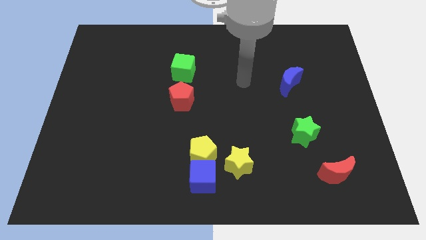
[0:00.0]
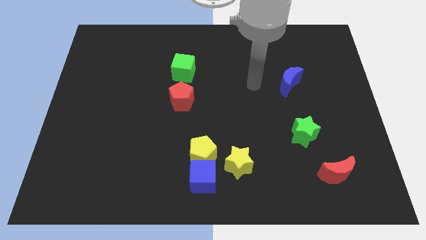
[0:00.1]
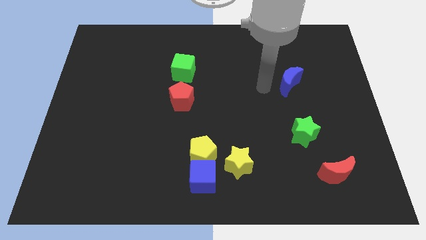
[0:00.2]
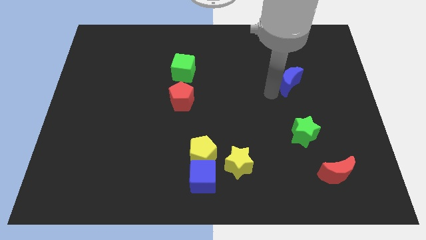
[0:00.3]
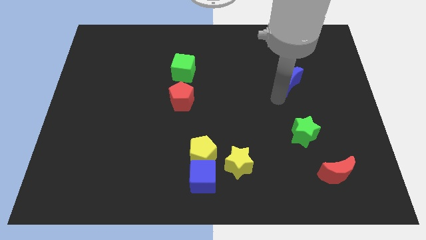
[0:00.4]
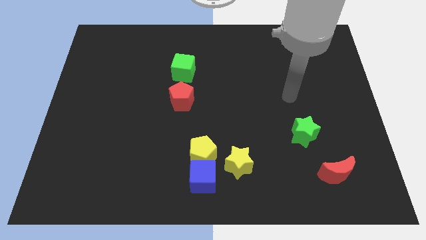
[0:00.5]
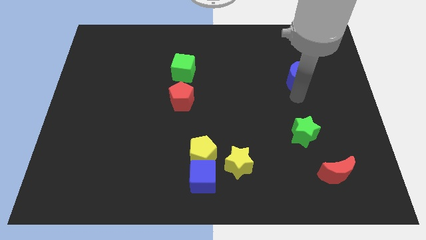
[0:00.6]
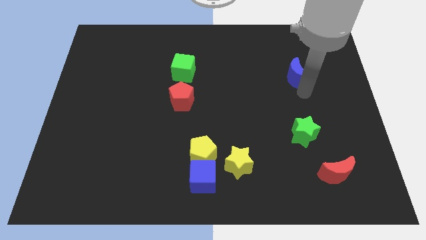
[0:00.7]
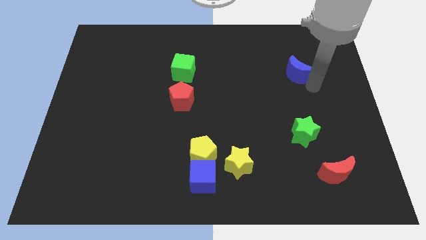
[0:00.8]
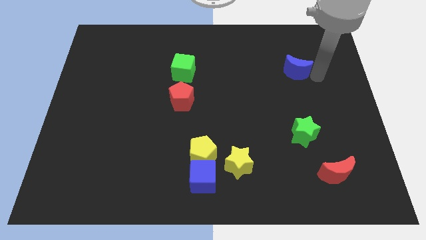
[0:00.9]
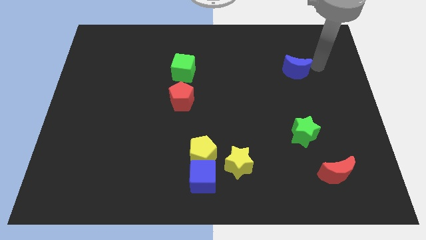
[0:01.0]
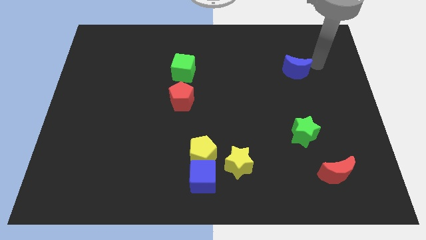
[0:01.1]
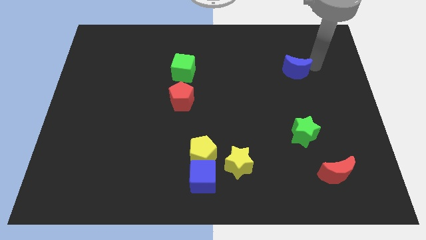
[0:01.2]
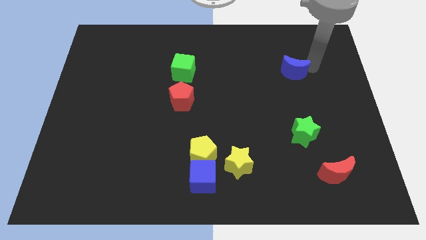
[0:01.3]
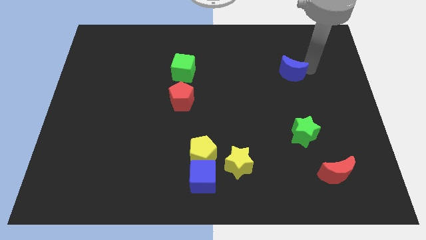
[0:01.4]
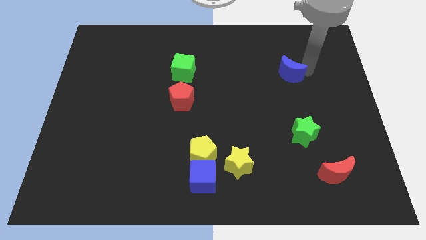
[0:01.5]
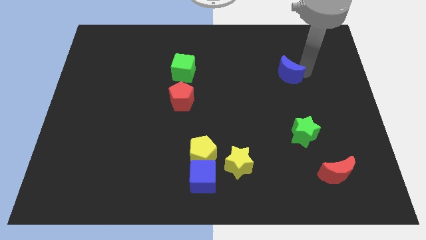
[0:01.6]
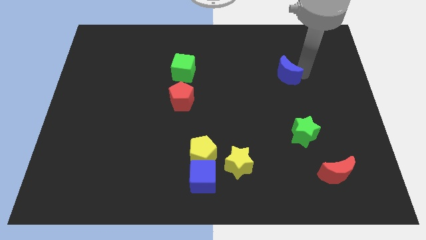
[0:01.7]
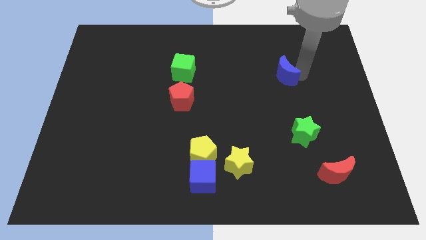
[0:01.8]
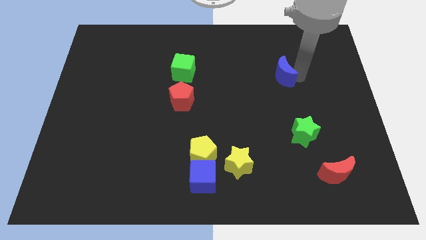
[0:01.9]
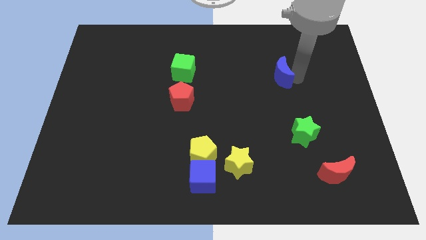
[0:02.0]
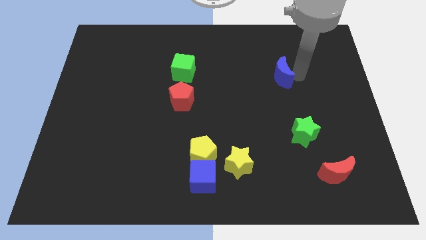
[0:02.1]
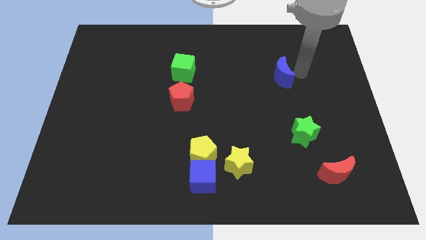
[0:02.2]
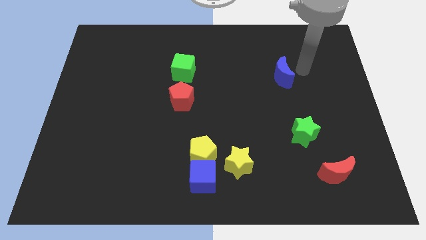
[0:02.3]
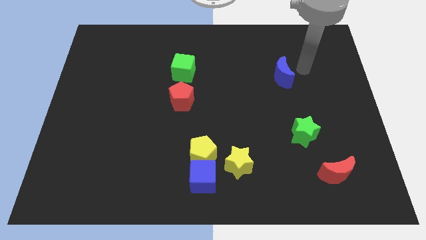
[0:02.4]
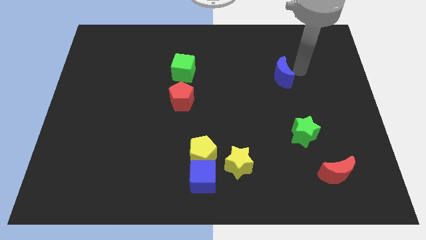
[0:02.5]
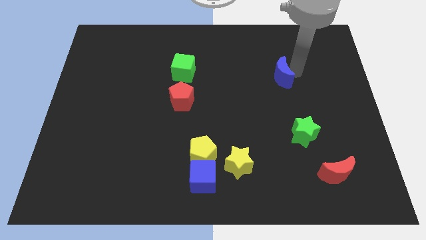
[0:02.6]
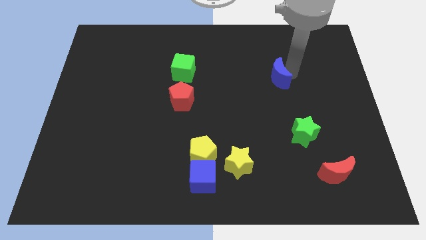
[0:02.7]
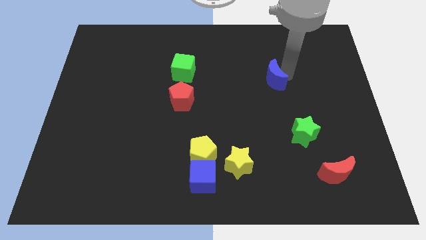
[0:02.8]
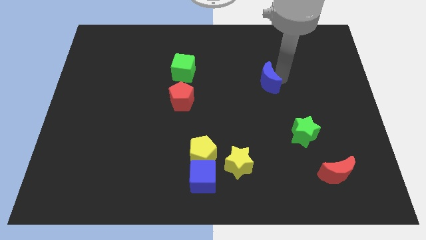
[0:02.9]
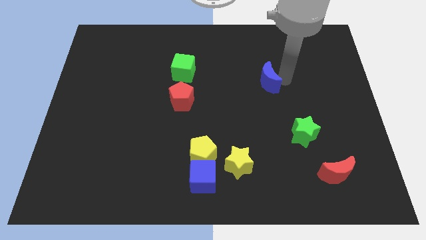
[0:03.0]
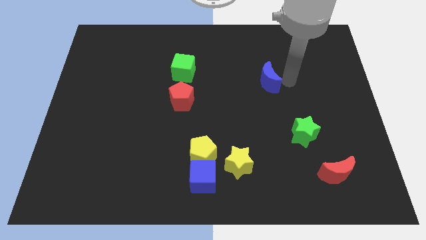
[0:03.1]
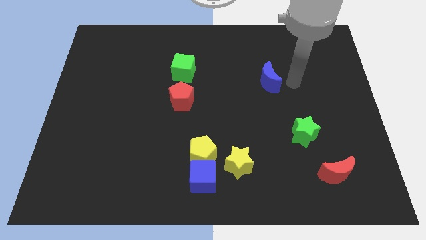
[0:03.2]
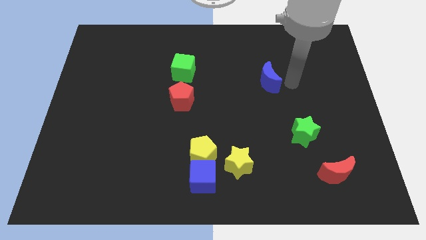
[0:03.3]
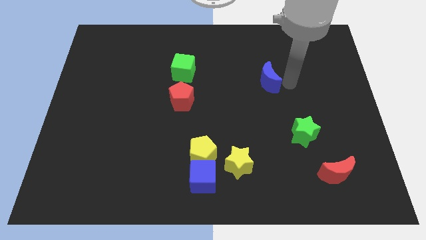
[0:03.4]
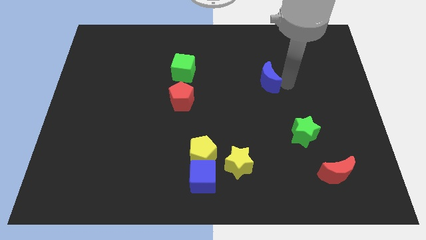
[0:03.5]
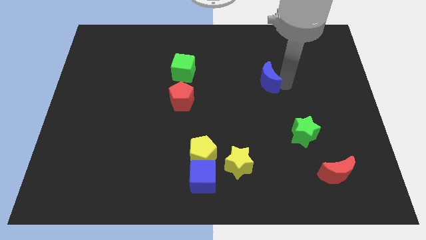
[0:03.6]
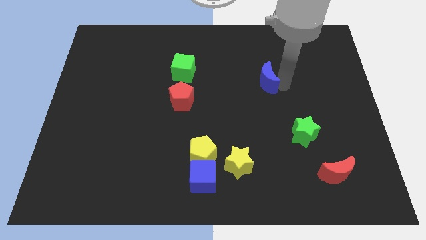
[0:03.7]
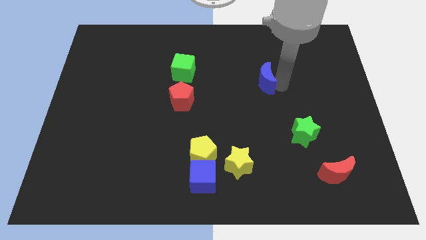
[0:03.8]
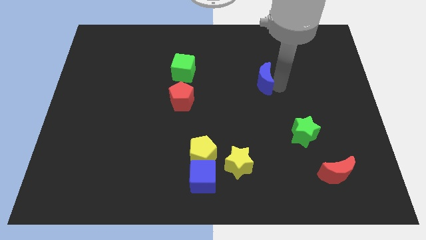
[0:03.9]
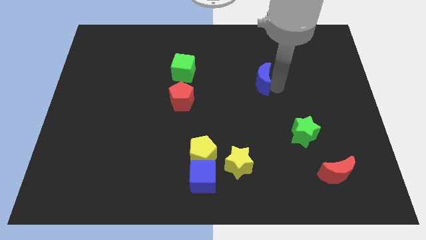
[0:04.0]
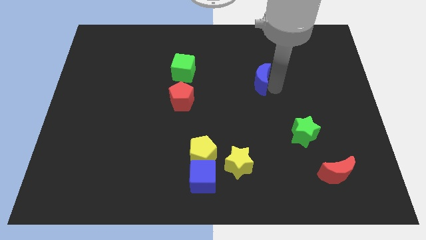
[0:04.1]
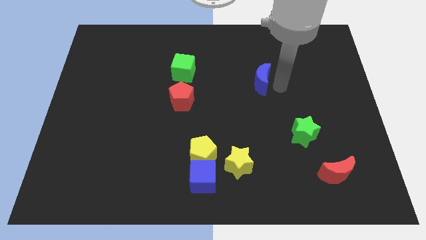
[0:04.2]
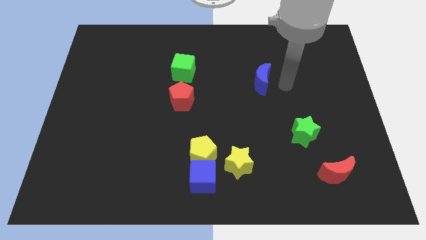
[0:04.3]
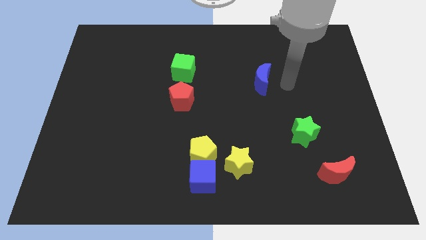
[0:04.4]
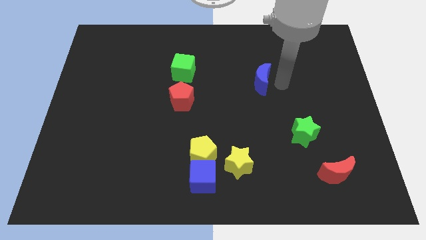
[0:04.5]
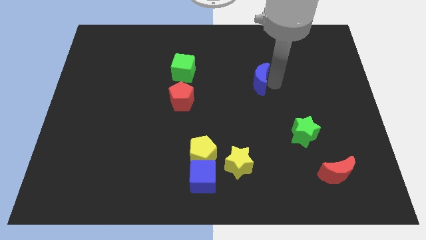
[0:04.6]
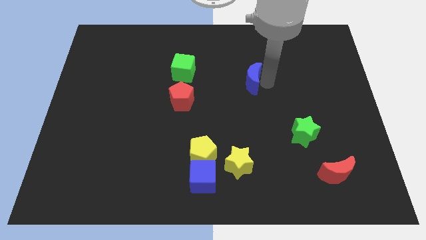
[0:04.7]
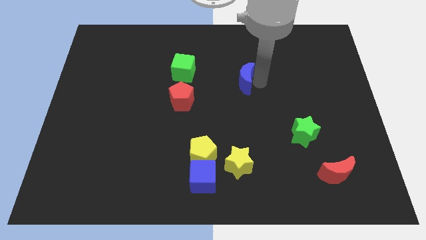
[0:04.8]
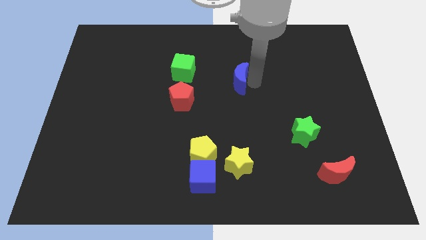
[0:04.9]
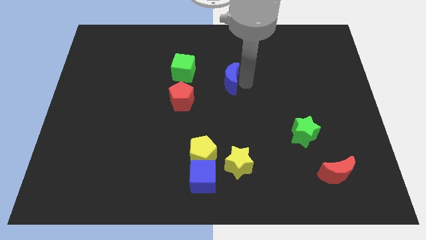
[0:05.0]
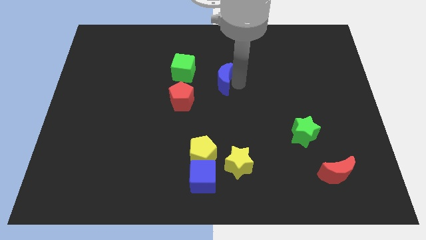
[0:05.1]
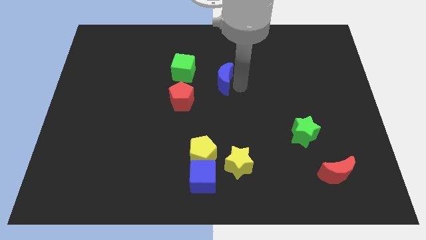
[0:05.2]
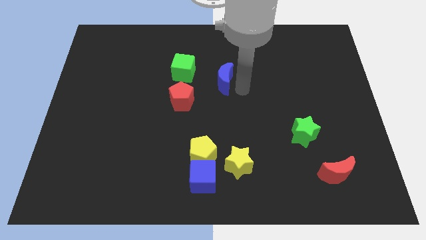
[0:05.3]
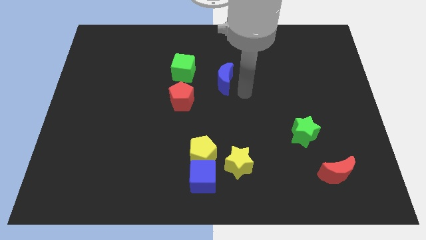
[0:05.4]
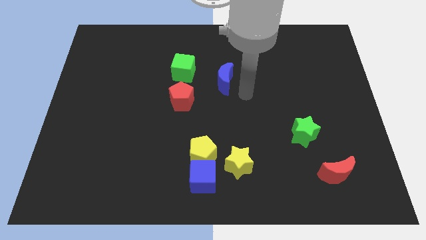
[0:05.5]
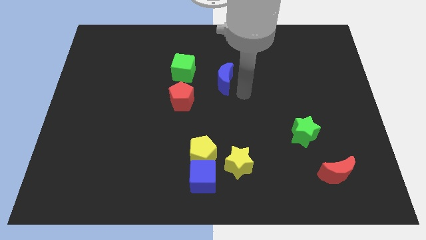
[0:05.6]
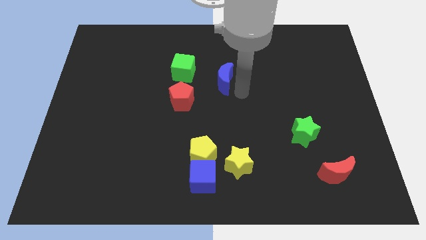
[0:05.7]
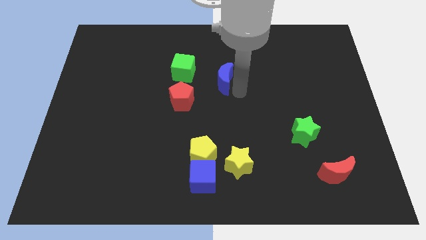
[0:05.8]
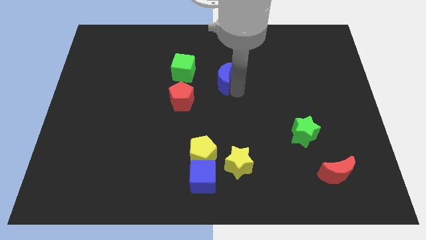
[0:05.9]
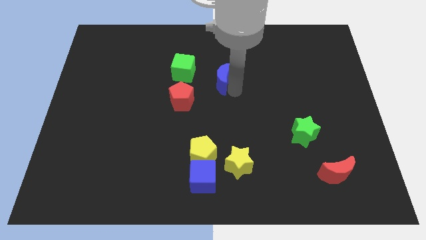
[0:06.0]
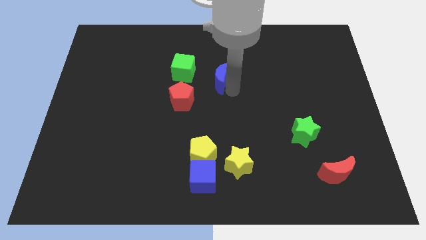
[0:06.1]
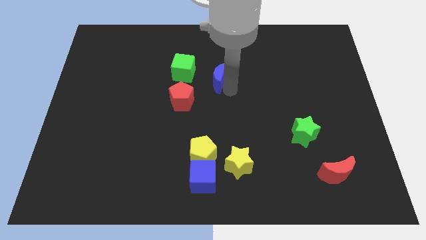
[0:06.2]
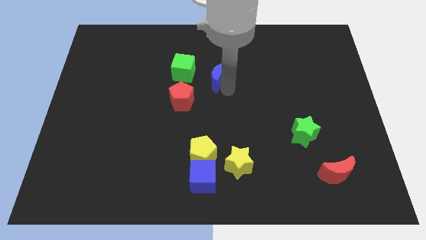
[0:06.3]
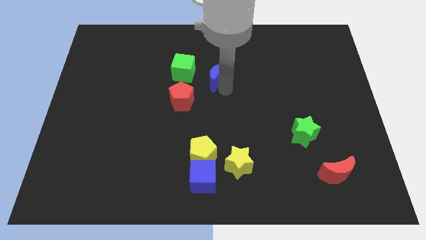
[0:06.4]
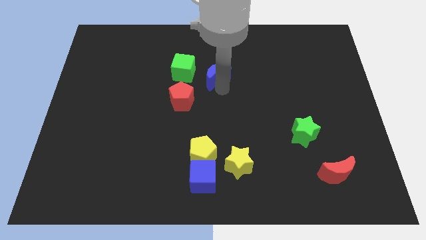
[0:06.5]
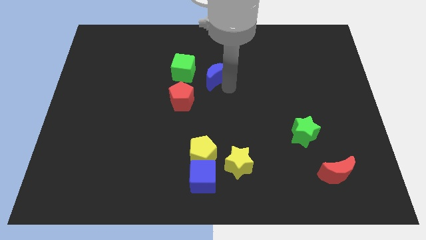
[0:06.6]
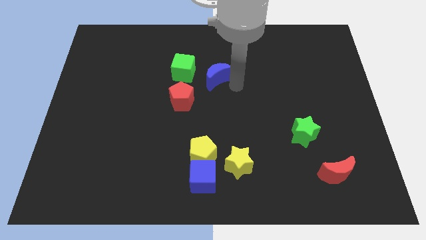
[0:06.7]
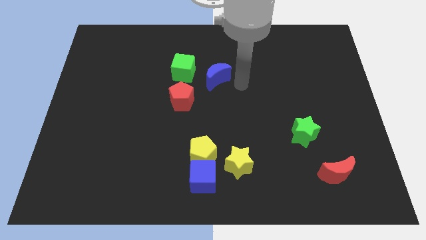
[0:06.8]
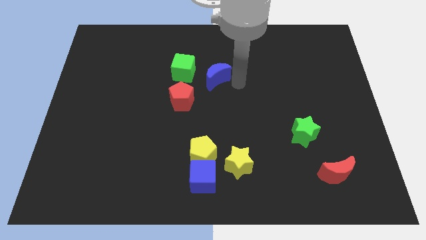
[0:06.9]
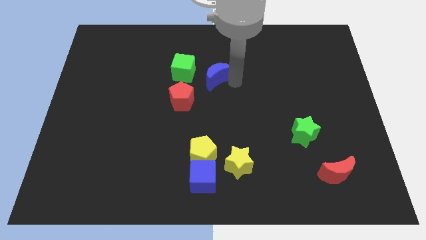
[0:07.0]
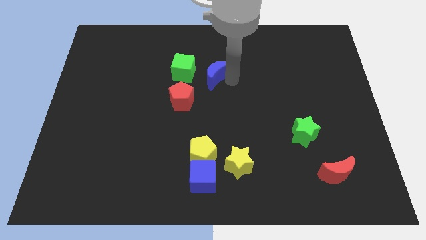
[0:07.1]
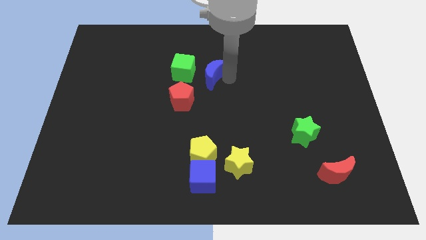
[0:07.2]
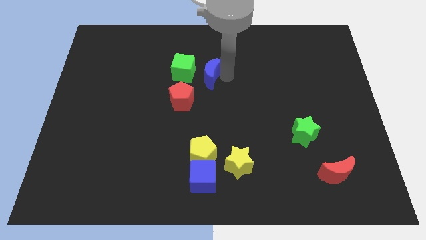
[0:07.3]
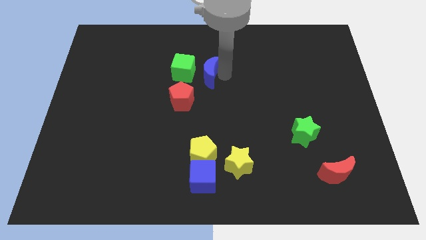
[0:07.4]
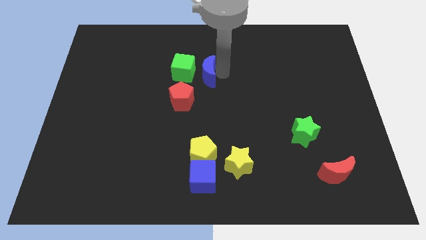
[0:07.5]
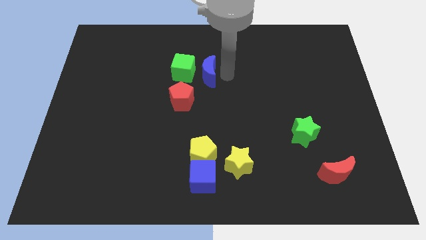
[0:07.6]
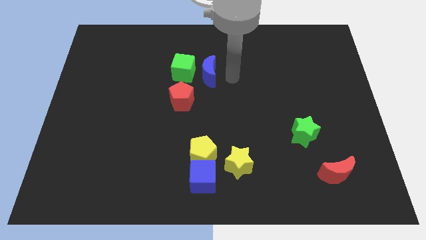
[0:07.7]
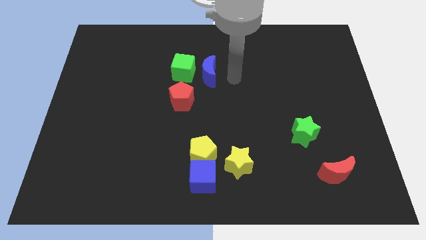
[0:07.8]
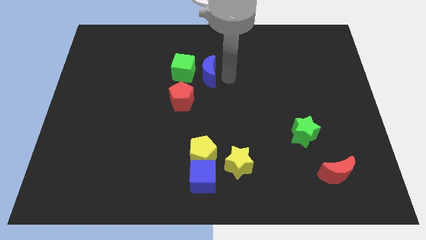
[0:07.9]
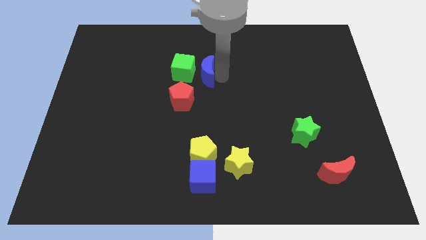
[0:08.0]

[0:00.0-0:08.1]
move the blue moon close to the green cube
